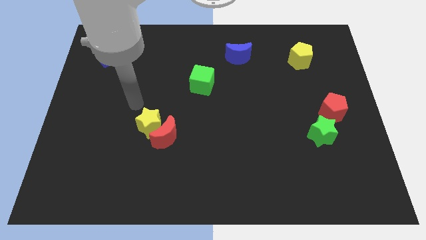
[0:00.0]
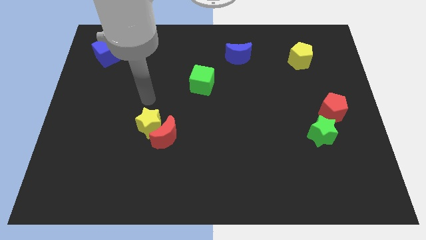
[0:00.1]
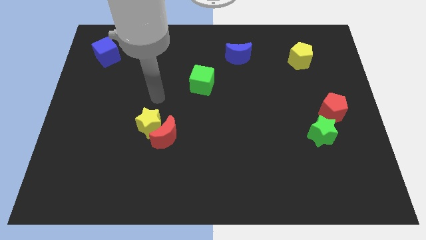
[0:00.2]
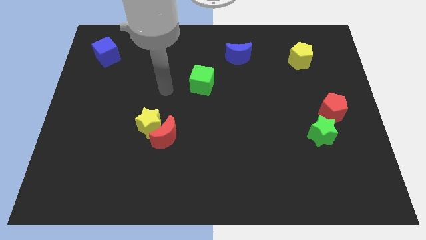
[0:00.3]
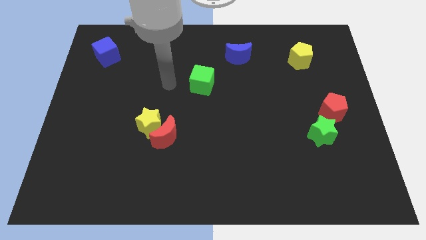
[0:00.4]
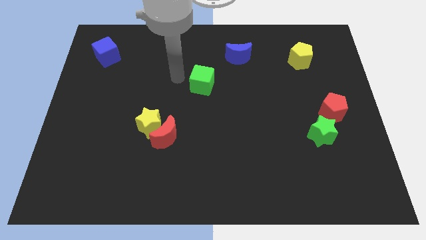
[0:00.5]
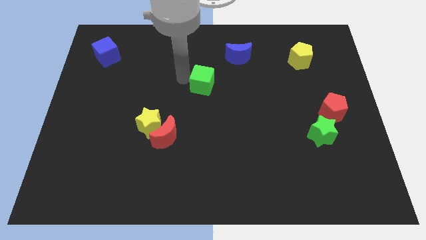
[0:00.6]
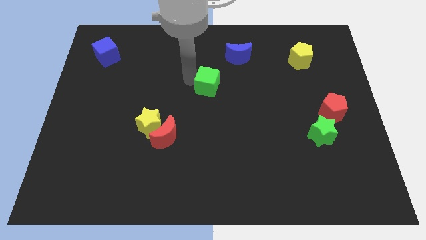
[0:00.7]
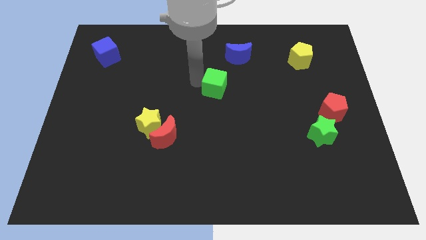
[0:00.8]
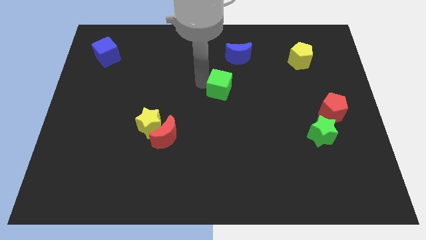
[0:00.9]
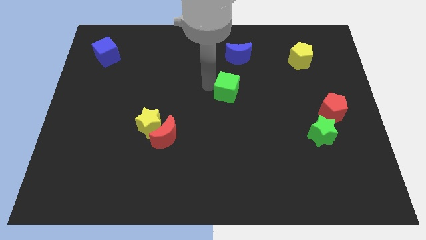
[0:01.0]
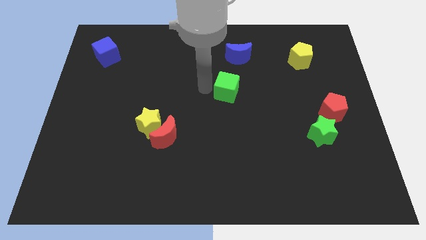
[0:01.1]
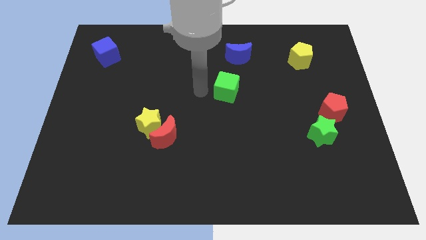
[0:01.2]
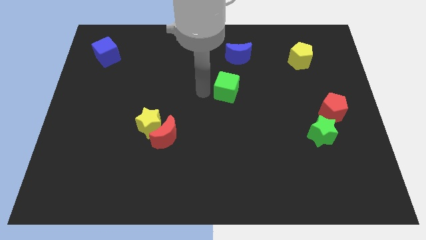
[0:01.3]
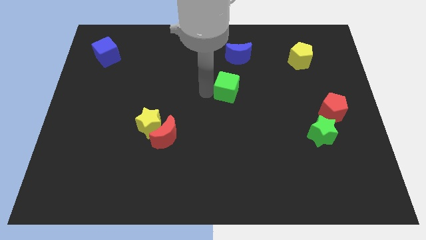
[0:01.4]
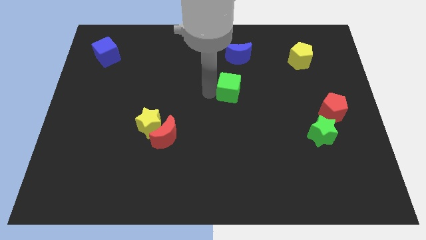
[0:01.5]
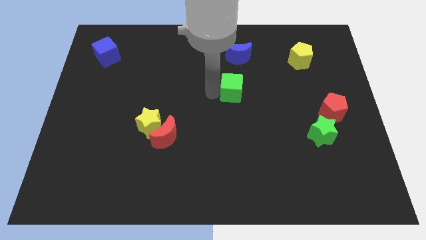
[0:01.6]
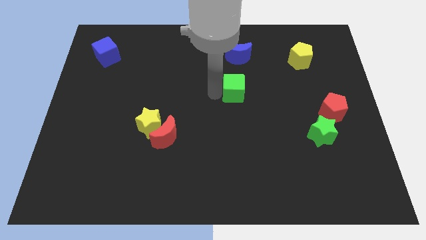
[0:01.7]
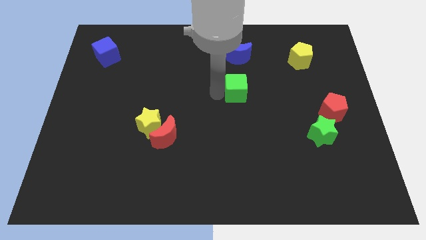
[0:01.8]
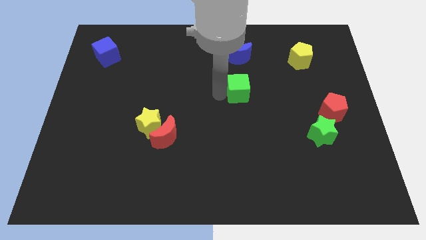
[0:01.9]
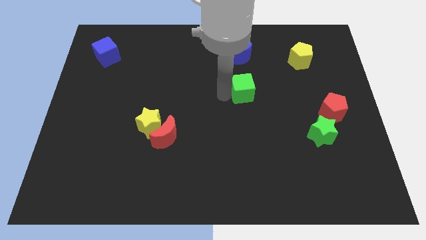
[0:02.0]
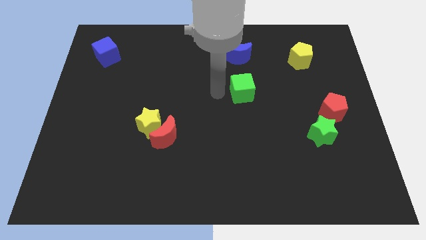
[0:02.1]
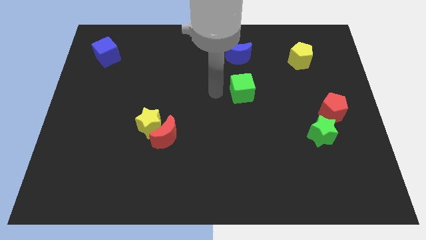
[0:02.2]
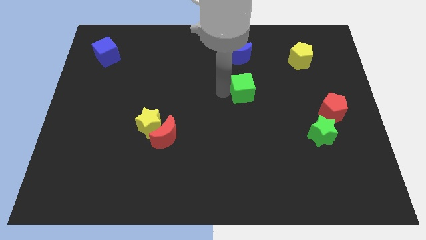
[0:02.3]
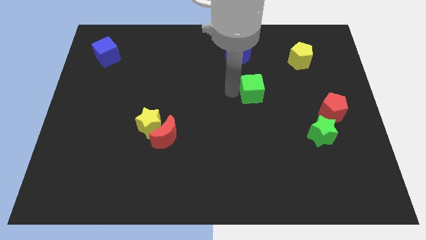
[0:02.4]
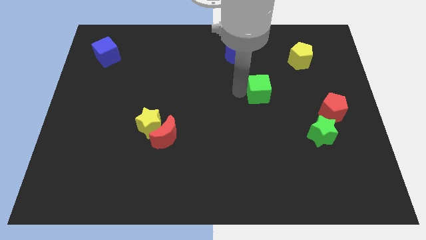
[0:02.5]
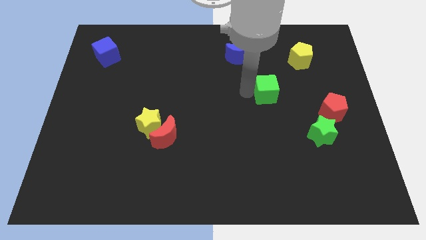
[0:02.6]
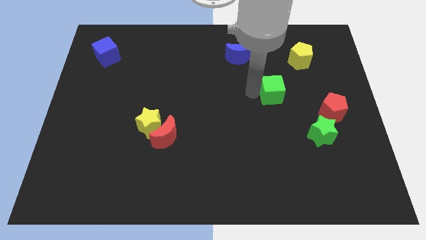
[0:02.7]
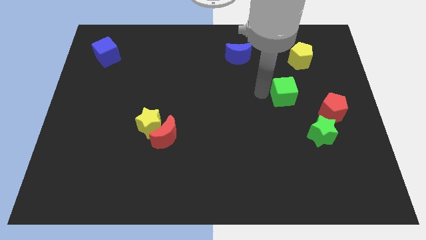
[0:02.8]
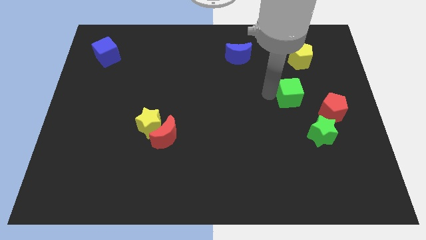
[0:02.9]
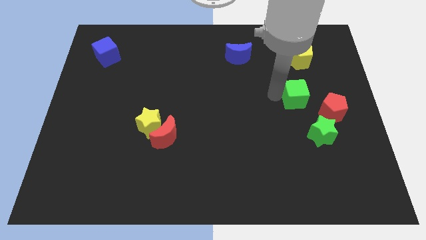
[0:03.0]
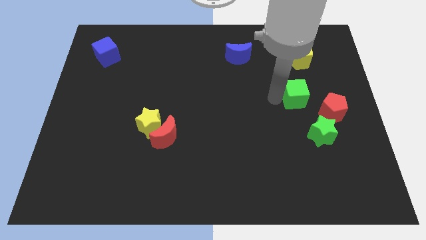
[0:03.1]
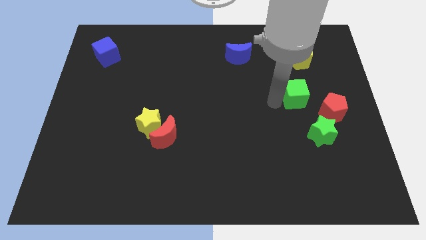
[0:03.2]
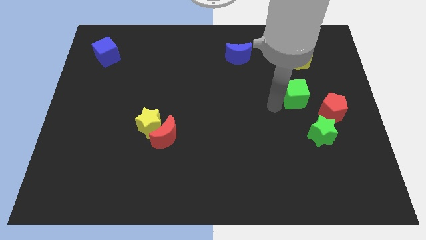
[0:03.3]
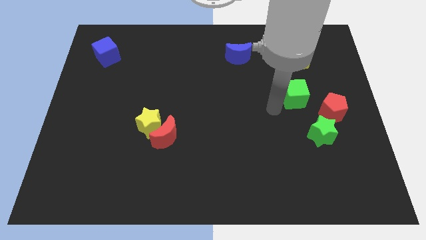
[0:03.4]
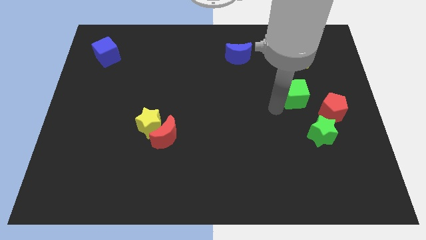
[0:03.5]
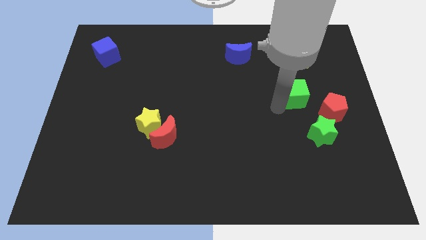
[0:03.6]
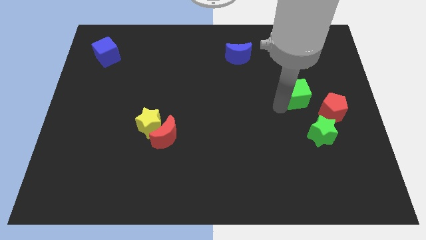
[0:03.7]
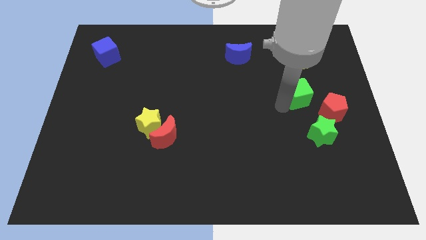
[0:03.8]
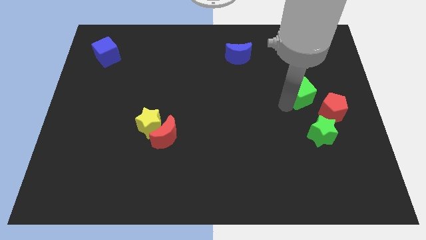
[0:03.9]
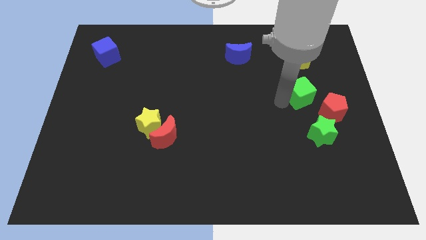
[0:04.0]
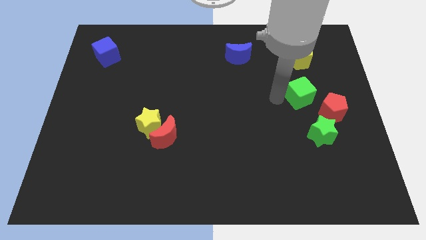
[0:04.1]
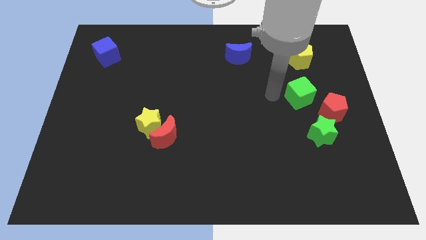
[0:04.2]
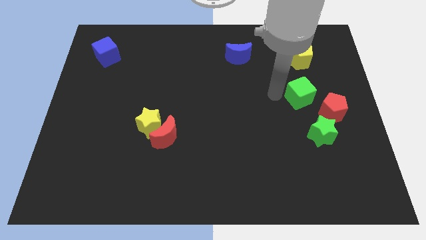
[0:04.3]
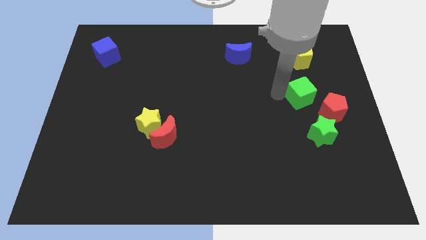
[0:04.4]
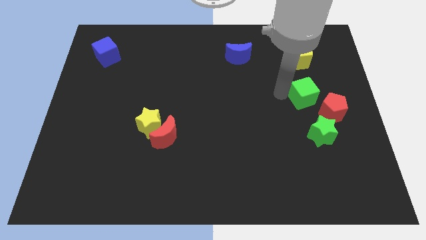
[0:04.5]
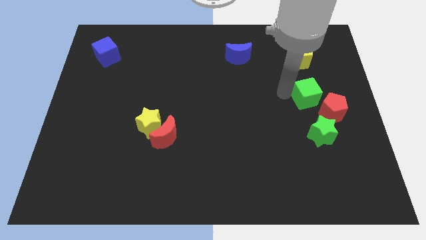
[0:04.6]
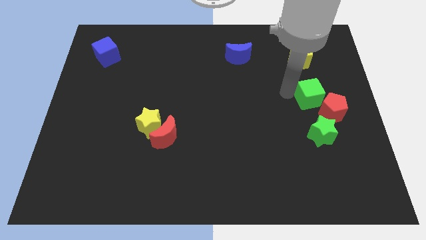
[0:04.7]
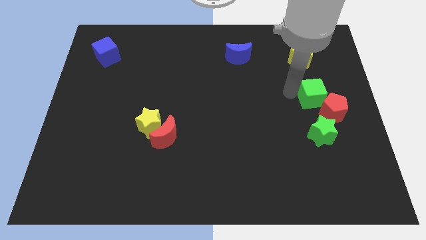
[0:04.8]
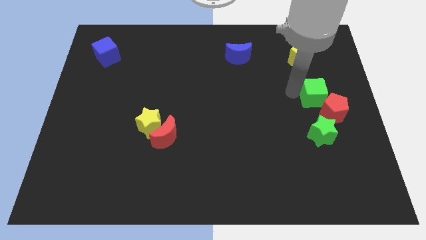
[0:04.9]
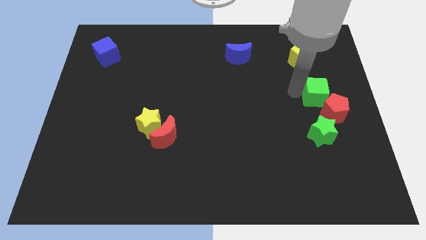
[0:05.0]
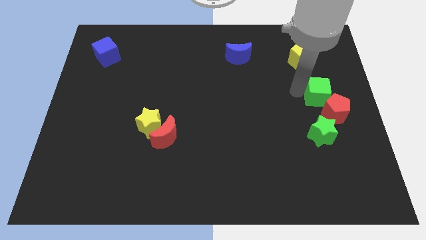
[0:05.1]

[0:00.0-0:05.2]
move the green cube to the right side of the board

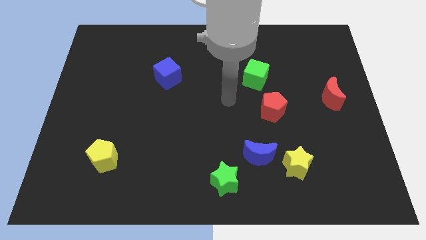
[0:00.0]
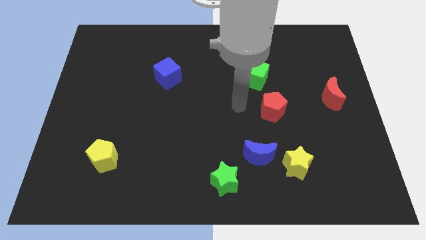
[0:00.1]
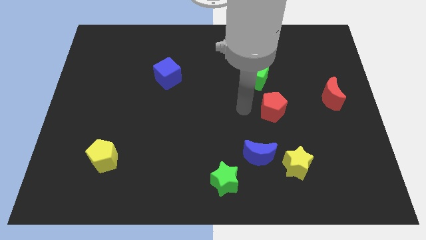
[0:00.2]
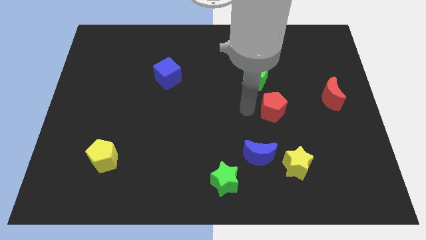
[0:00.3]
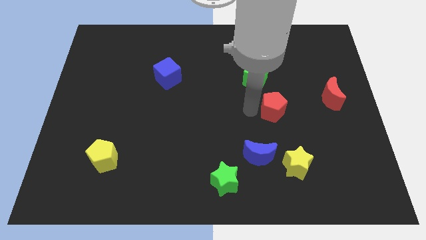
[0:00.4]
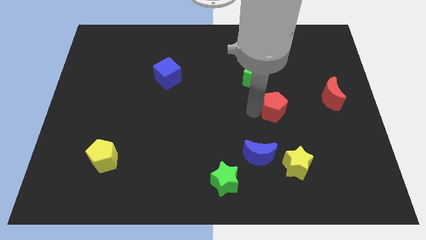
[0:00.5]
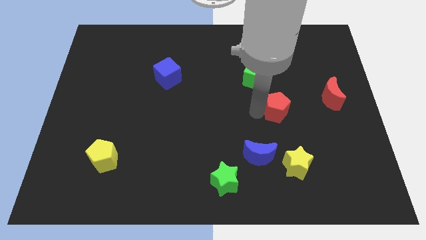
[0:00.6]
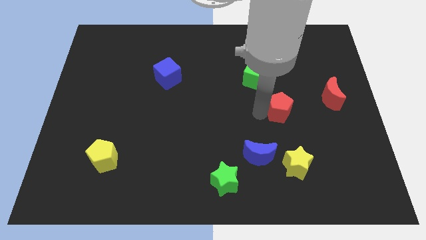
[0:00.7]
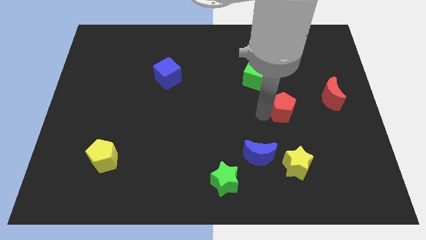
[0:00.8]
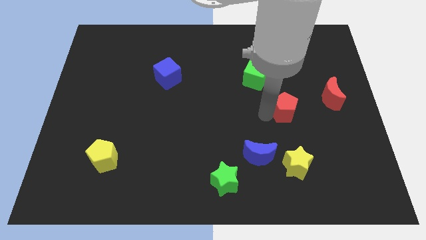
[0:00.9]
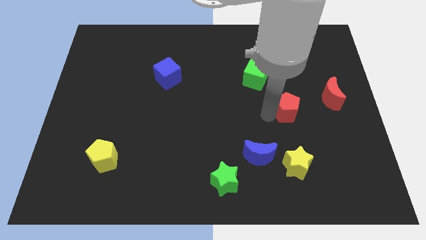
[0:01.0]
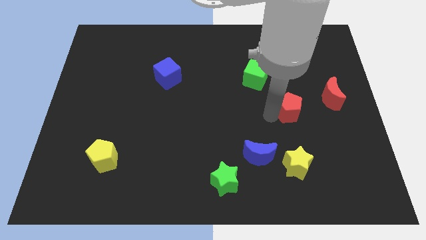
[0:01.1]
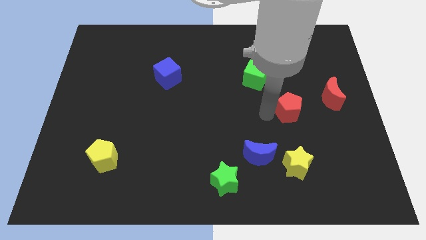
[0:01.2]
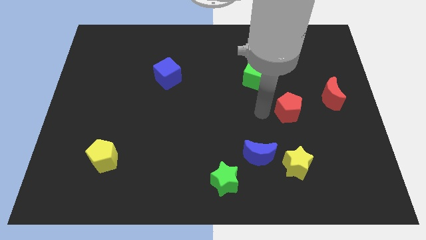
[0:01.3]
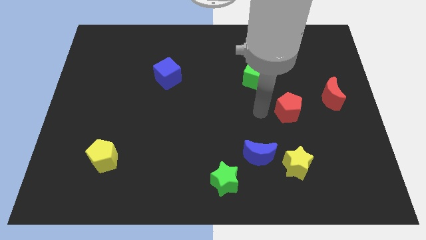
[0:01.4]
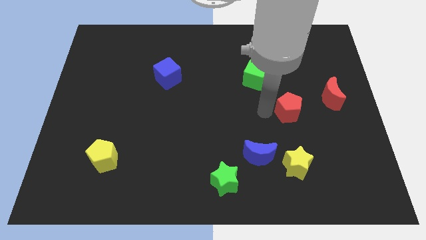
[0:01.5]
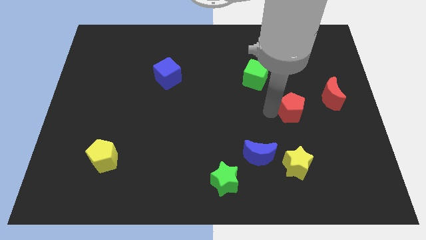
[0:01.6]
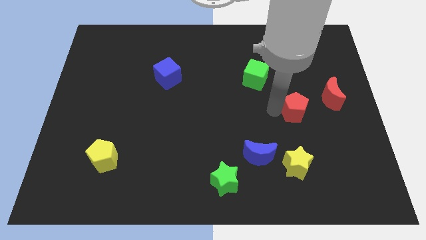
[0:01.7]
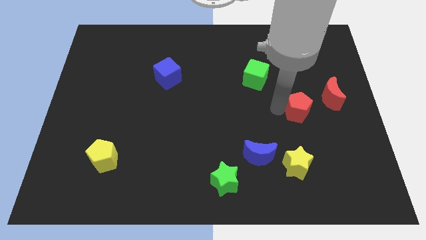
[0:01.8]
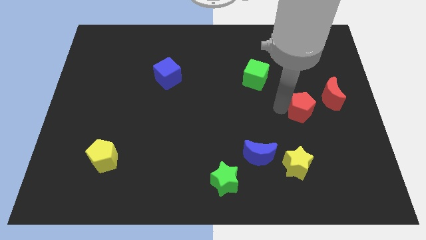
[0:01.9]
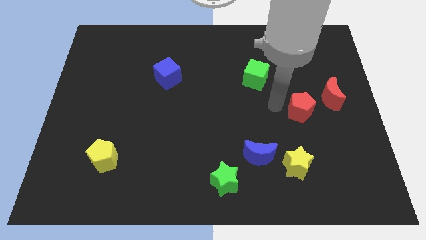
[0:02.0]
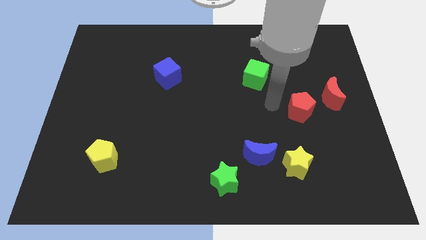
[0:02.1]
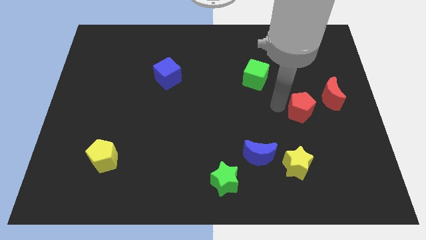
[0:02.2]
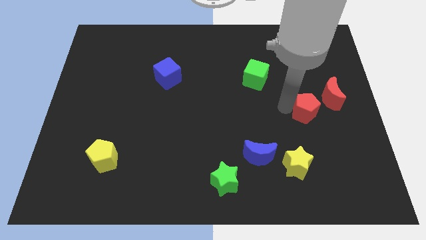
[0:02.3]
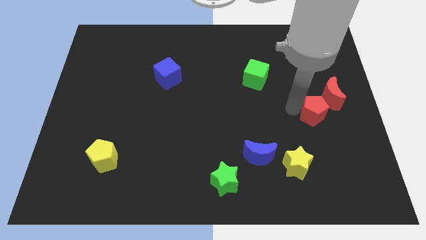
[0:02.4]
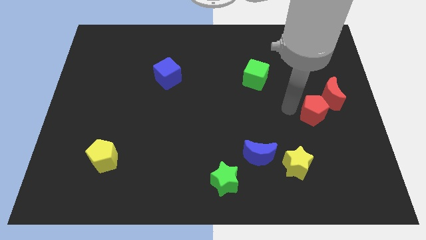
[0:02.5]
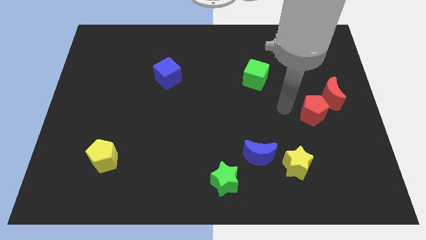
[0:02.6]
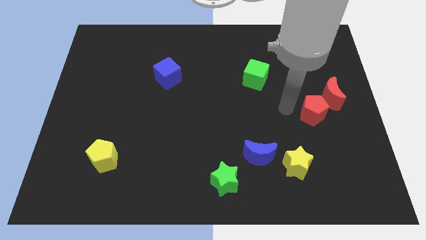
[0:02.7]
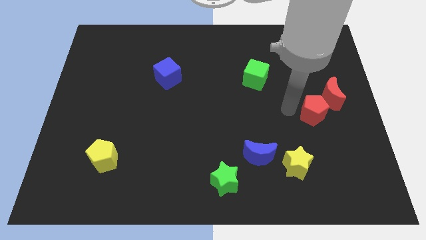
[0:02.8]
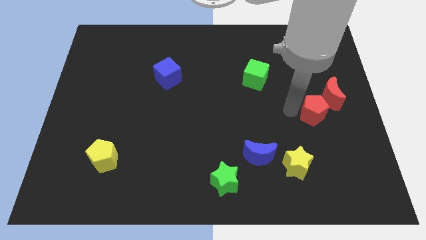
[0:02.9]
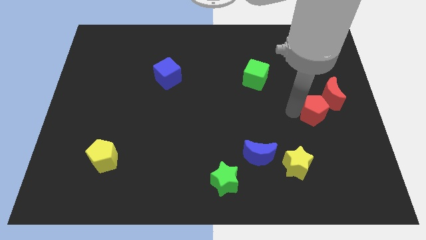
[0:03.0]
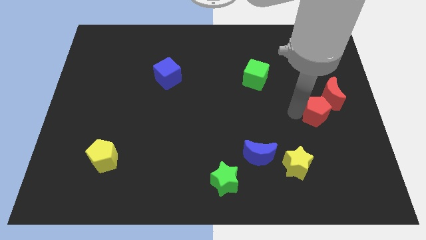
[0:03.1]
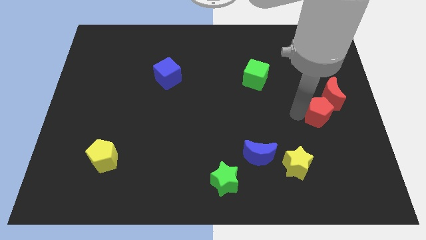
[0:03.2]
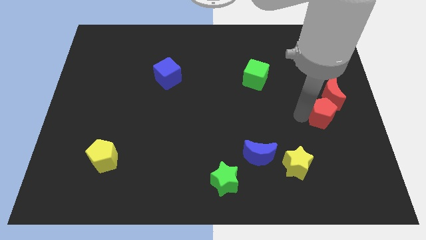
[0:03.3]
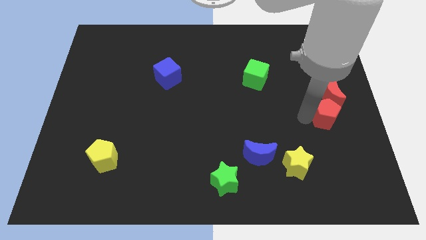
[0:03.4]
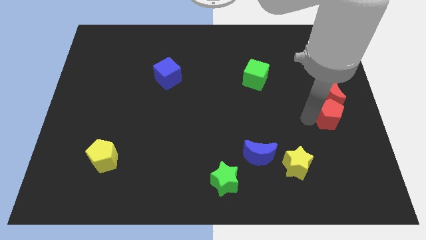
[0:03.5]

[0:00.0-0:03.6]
move the red pentagon to the right side of the board
